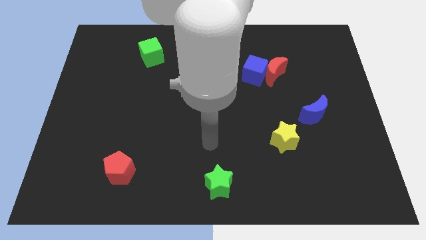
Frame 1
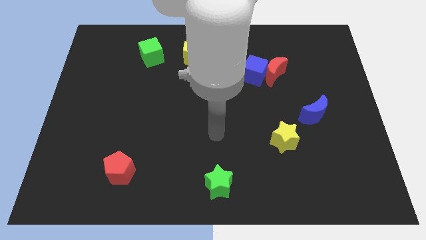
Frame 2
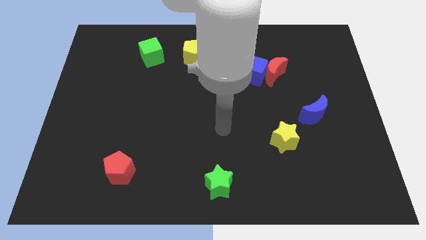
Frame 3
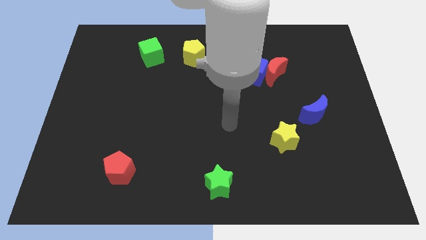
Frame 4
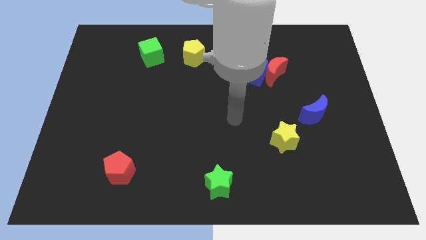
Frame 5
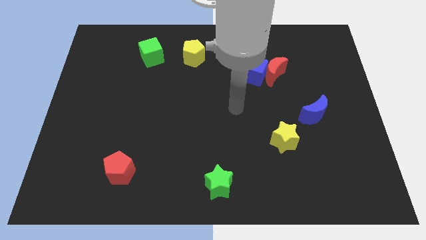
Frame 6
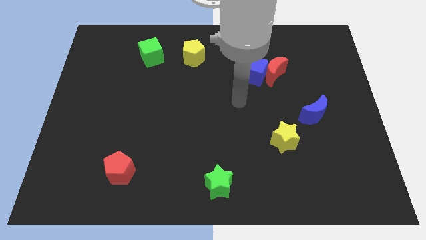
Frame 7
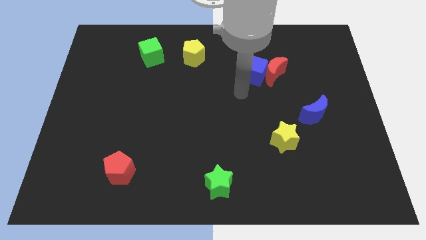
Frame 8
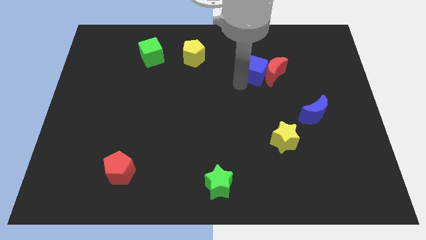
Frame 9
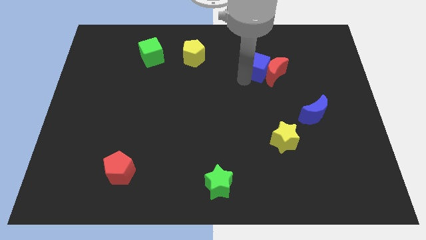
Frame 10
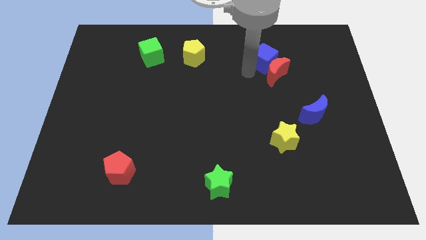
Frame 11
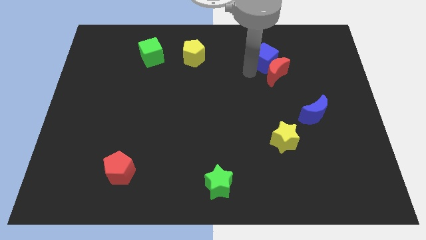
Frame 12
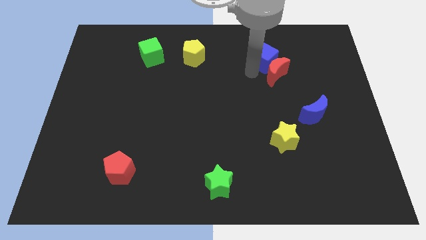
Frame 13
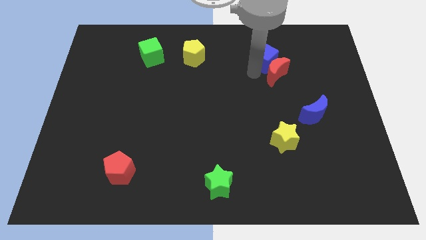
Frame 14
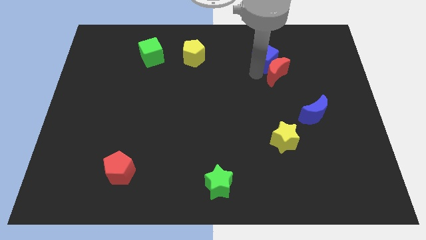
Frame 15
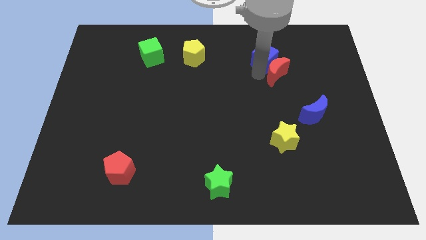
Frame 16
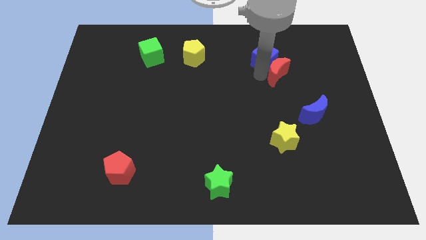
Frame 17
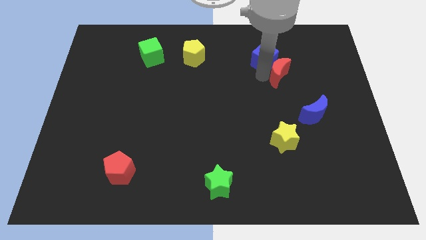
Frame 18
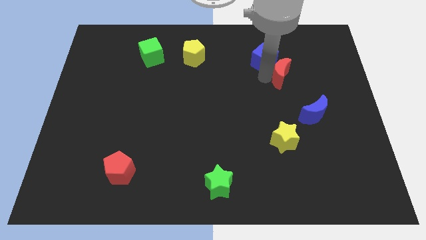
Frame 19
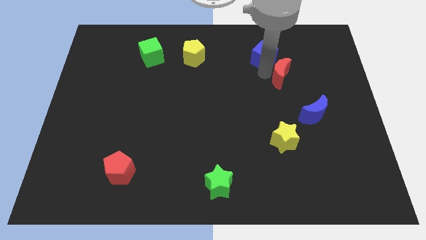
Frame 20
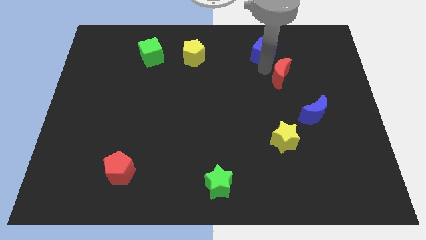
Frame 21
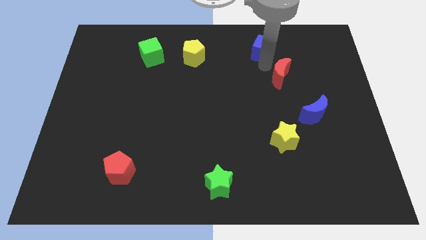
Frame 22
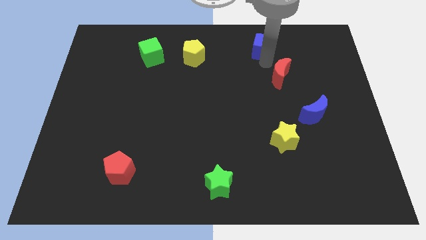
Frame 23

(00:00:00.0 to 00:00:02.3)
move the red moon away from the blue cube

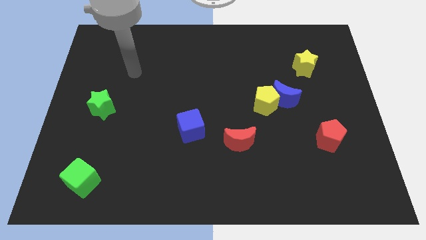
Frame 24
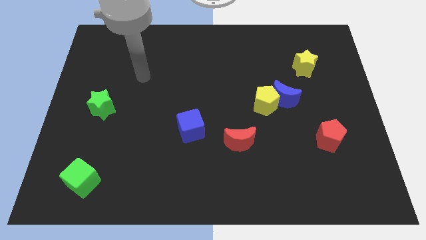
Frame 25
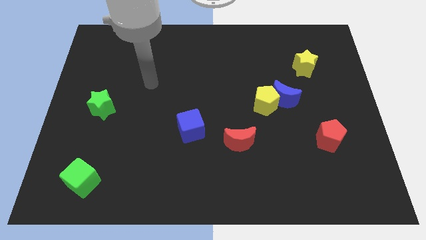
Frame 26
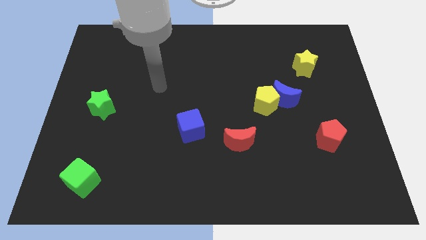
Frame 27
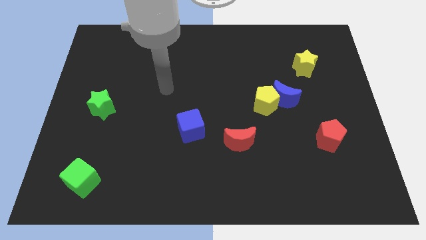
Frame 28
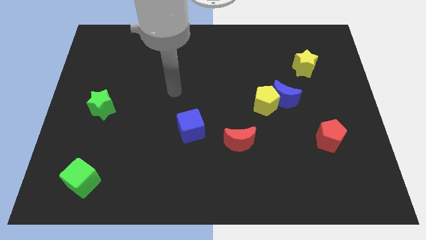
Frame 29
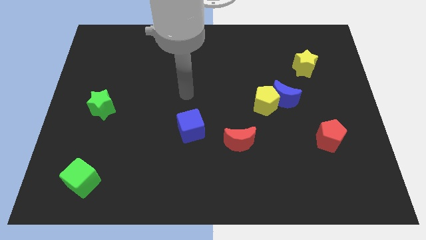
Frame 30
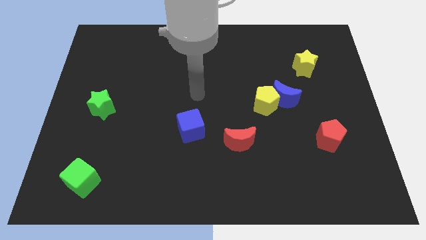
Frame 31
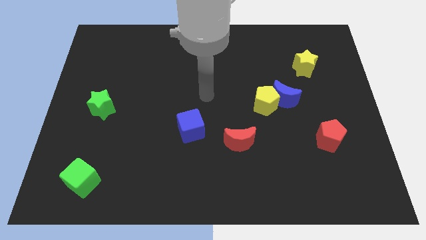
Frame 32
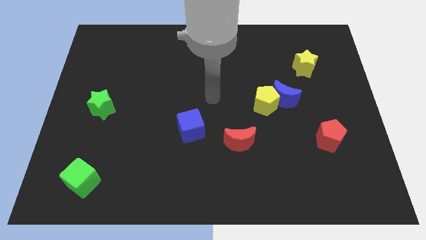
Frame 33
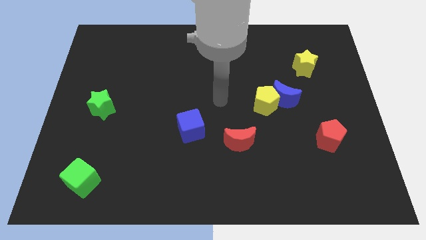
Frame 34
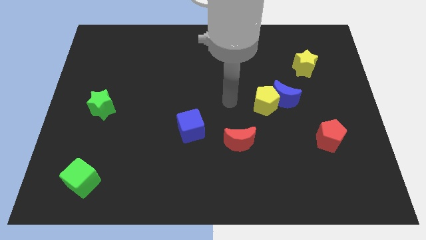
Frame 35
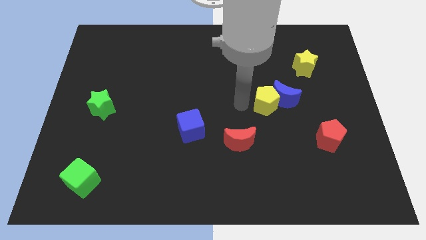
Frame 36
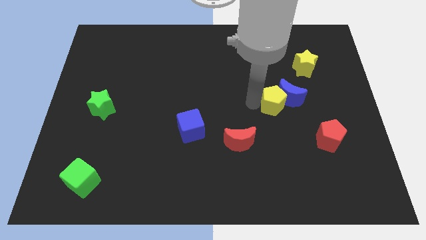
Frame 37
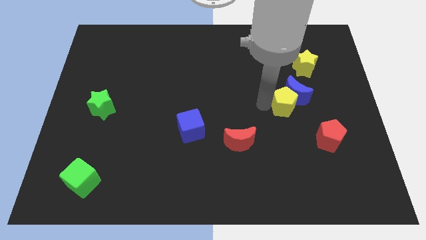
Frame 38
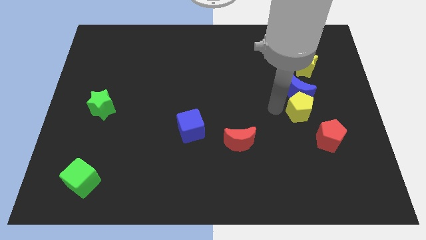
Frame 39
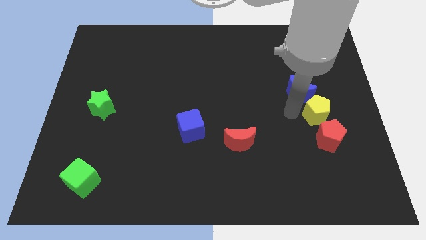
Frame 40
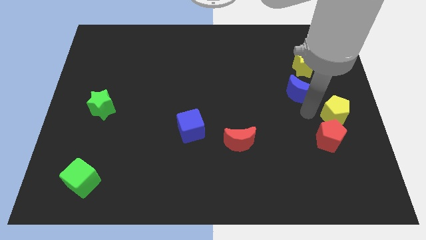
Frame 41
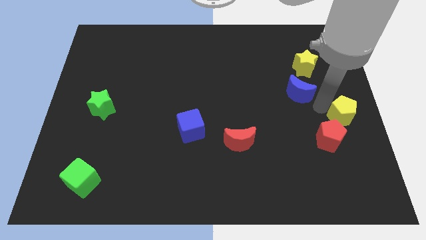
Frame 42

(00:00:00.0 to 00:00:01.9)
separate the blue moon from the yellow pentagon

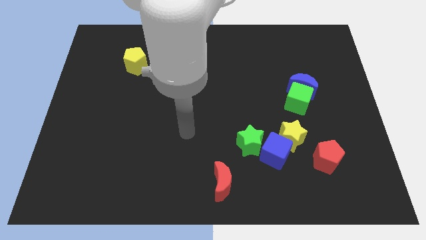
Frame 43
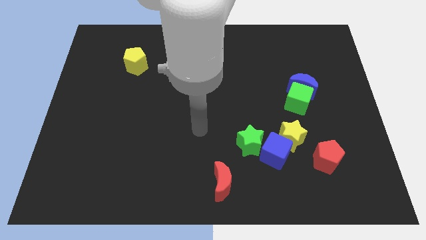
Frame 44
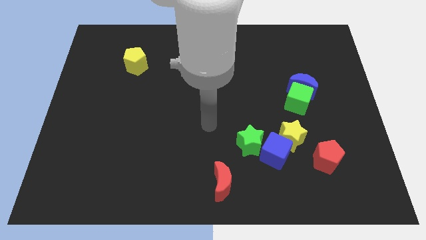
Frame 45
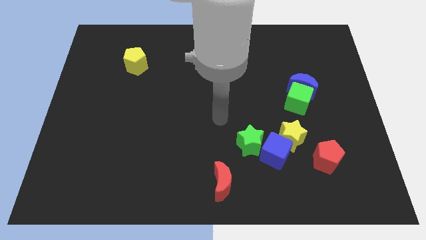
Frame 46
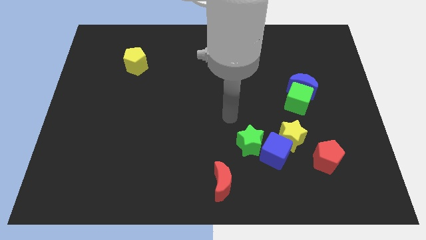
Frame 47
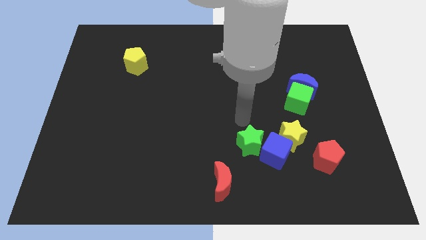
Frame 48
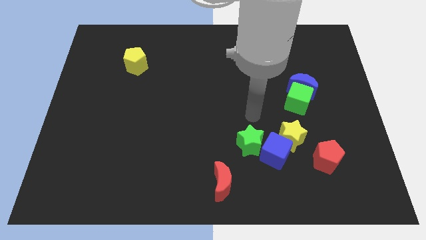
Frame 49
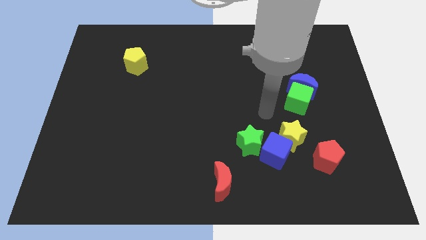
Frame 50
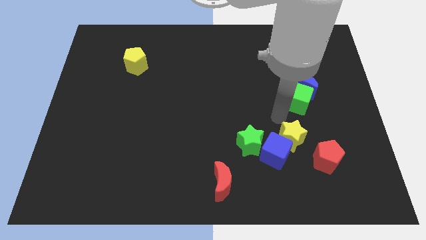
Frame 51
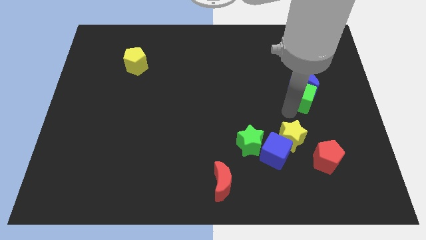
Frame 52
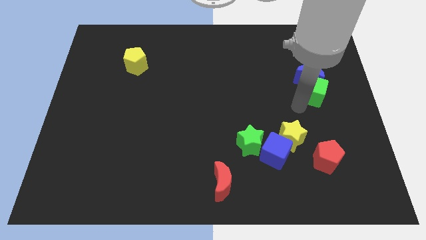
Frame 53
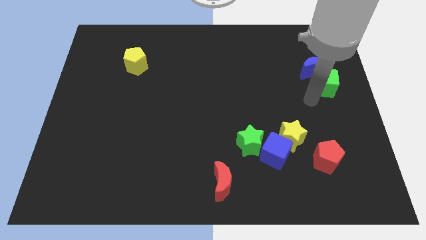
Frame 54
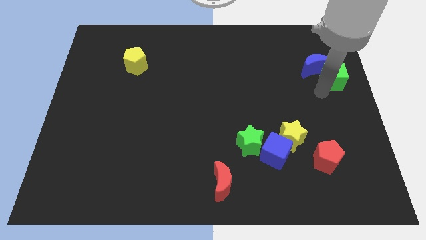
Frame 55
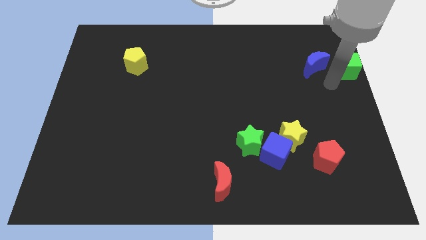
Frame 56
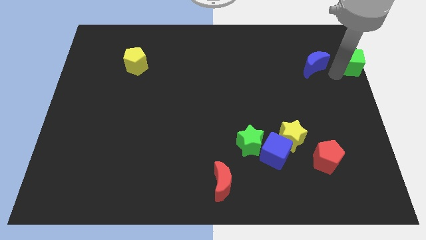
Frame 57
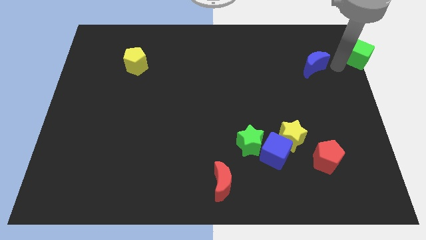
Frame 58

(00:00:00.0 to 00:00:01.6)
separate the blue moon from the green cube

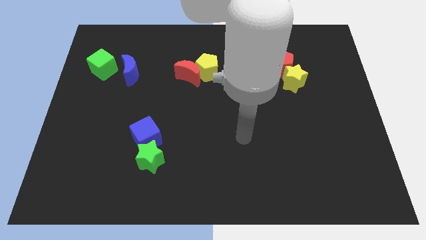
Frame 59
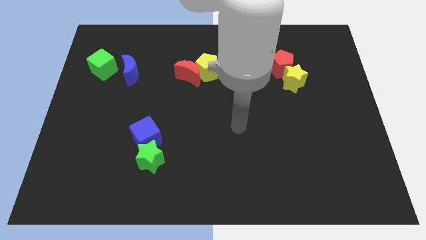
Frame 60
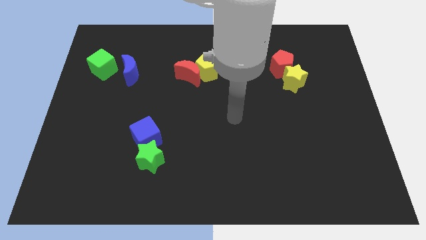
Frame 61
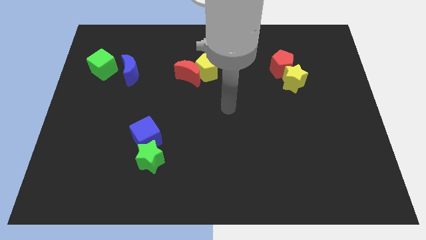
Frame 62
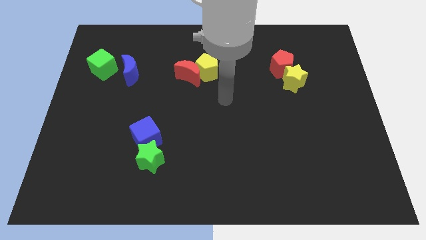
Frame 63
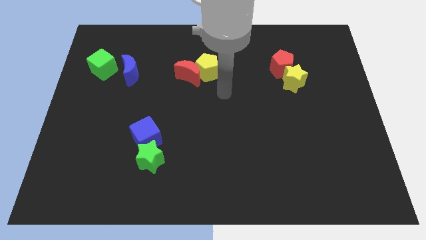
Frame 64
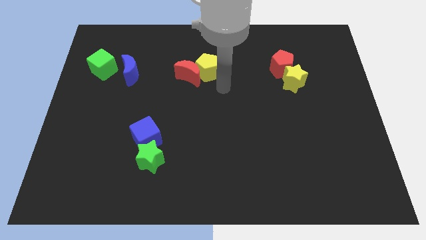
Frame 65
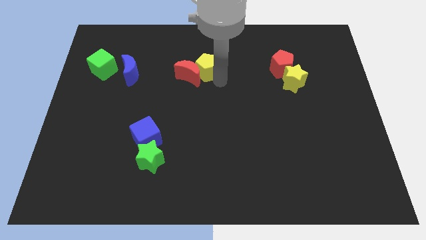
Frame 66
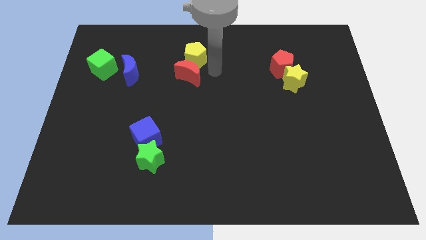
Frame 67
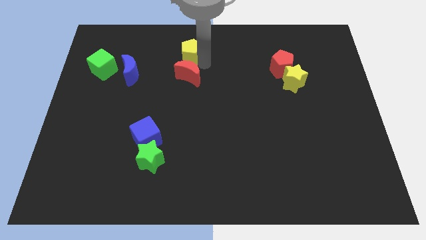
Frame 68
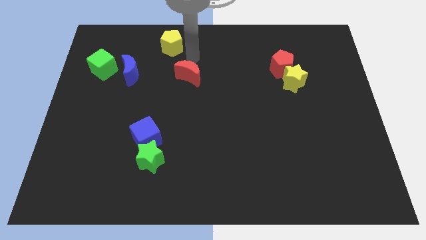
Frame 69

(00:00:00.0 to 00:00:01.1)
move the red moon away from the yellow pentagon

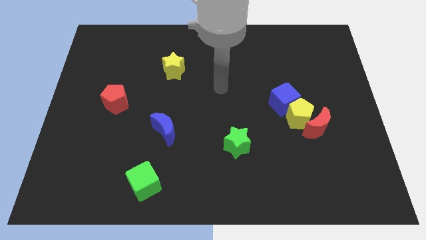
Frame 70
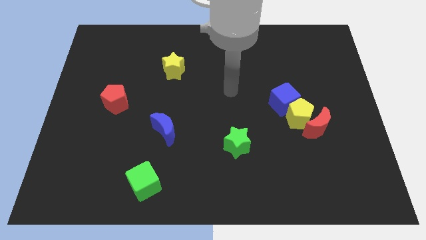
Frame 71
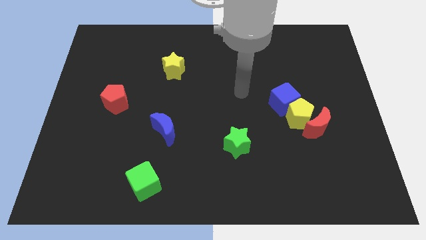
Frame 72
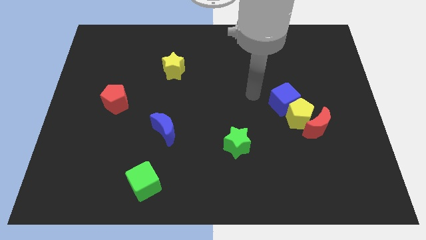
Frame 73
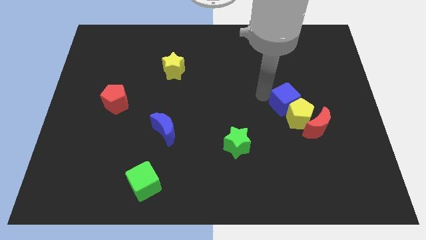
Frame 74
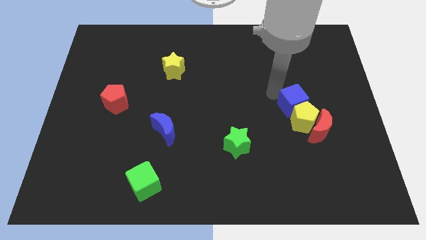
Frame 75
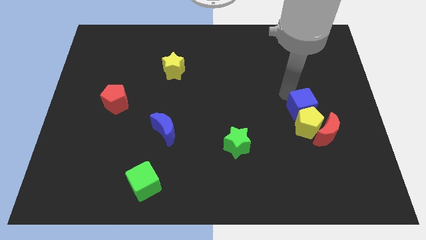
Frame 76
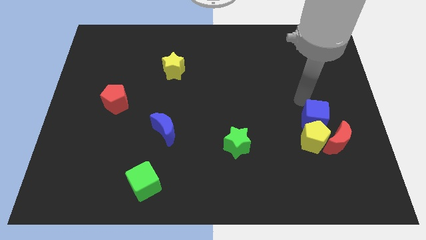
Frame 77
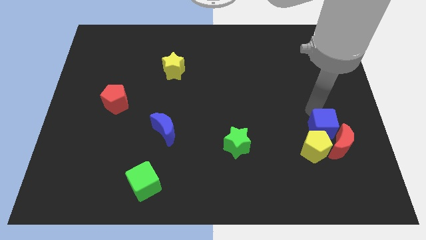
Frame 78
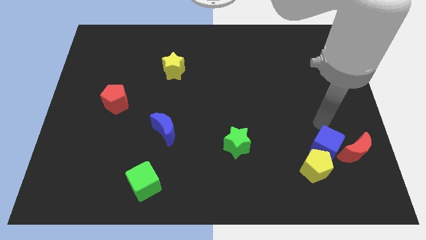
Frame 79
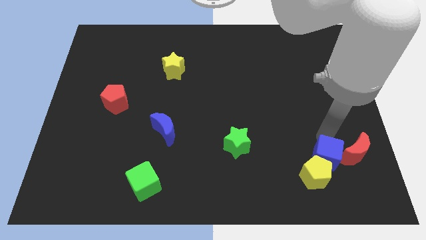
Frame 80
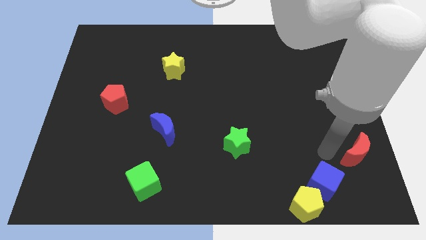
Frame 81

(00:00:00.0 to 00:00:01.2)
pull the yellow pentagon apart from the red moon and blue cube

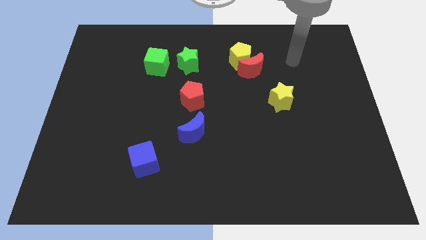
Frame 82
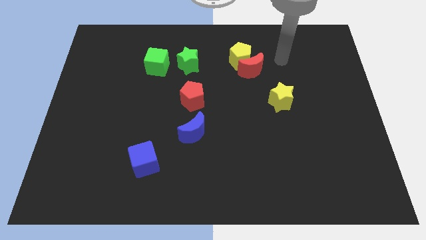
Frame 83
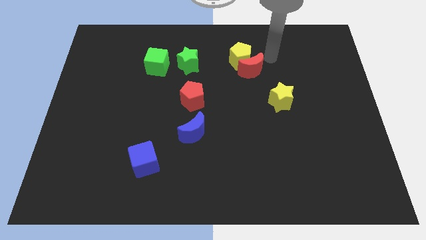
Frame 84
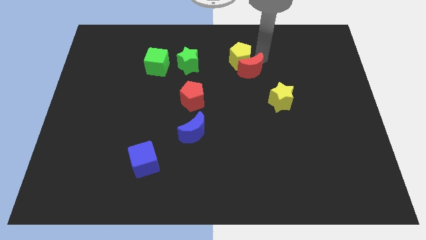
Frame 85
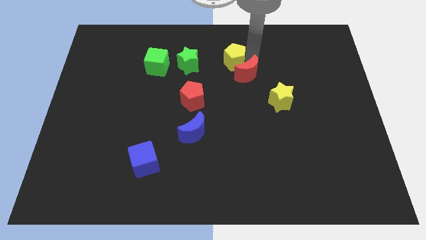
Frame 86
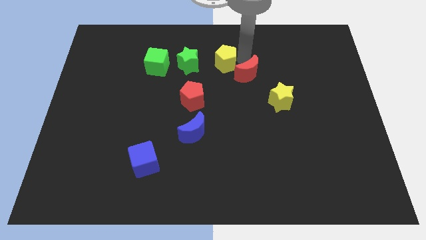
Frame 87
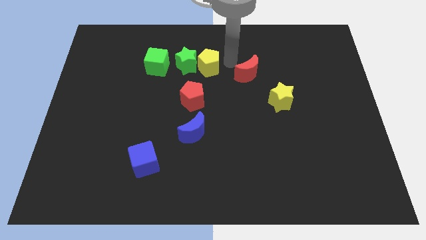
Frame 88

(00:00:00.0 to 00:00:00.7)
pull the red moon apart from the yellow pentagon

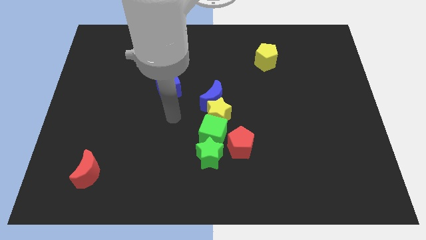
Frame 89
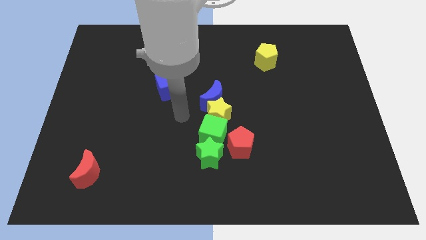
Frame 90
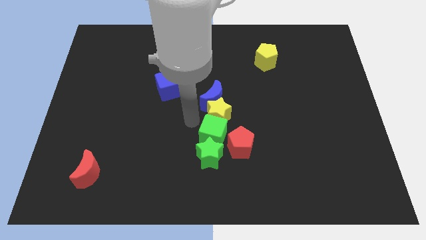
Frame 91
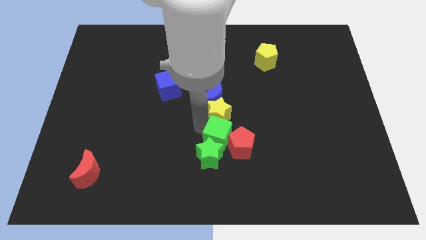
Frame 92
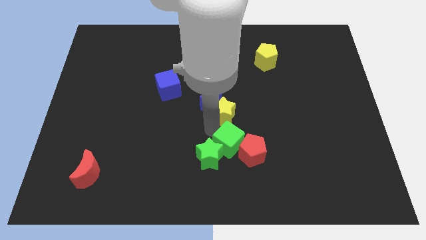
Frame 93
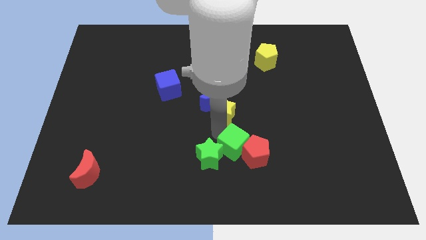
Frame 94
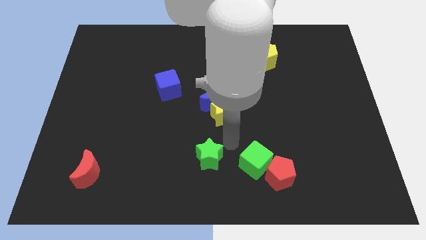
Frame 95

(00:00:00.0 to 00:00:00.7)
separate the green star from the green cube and red pentagon
